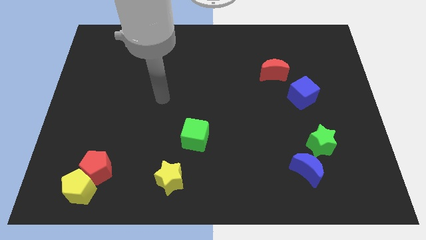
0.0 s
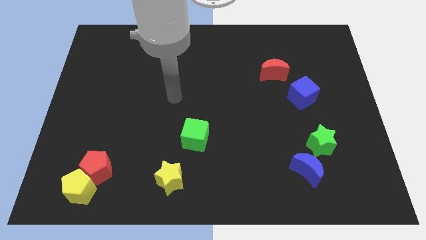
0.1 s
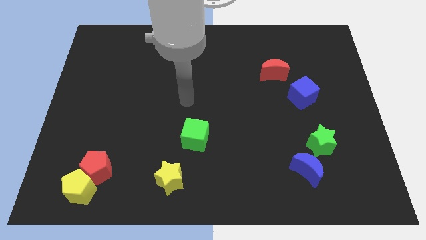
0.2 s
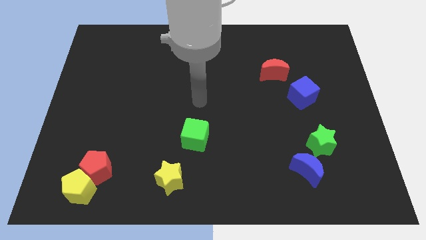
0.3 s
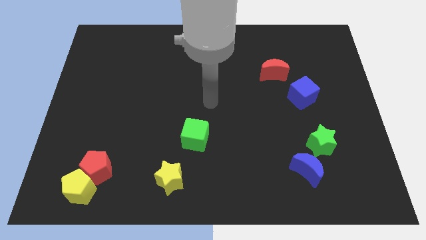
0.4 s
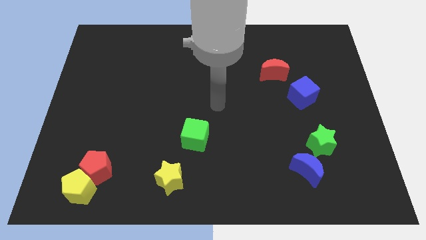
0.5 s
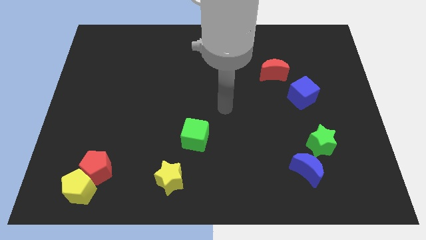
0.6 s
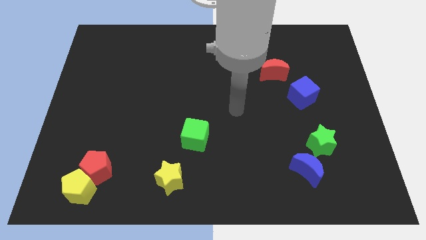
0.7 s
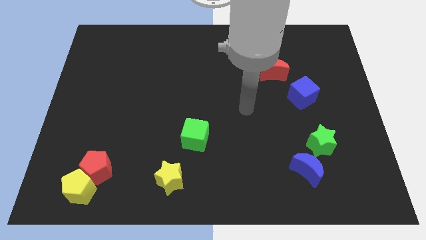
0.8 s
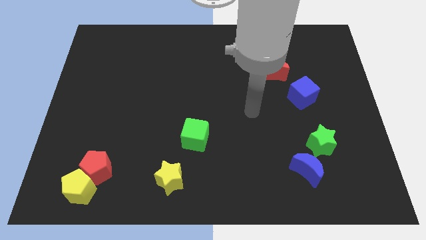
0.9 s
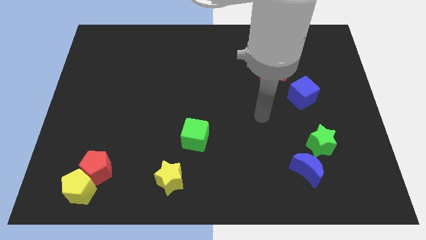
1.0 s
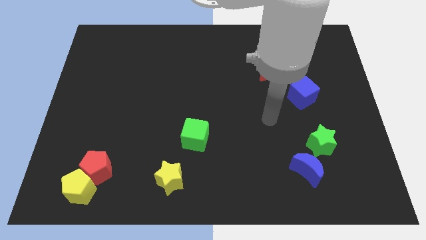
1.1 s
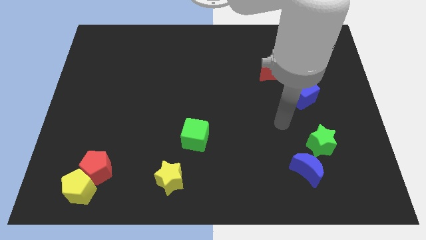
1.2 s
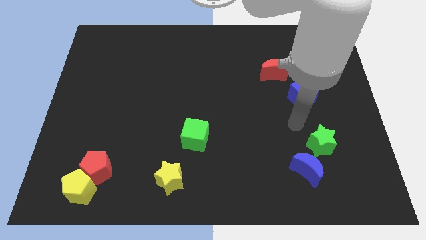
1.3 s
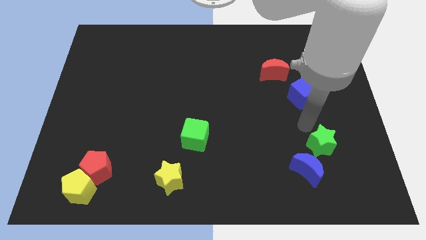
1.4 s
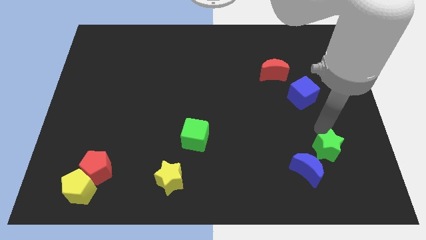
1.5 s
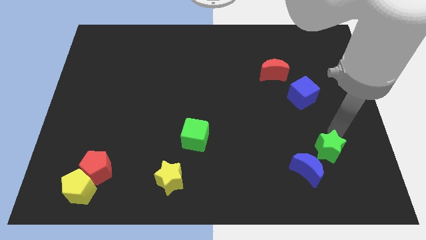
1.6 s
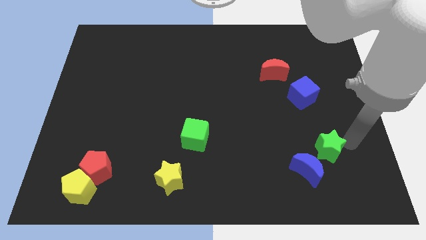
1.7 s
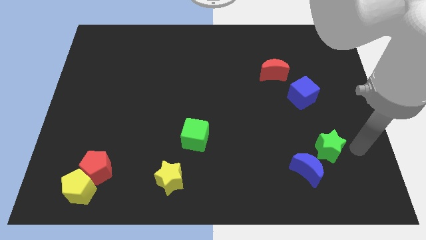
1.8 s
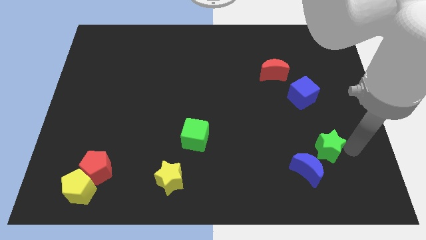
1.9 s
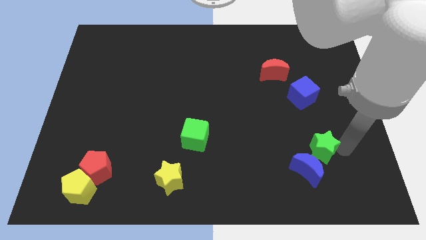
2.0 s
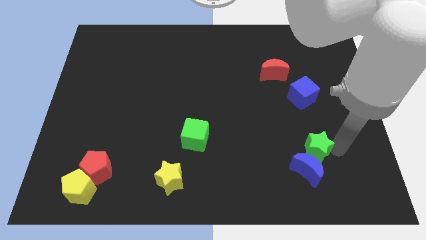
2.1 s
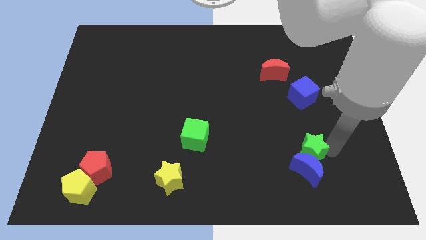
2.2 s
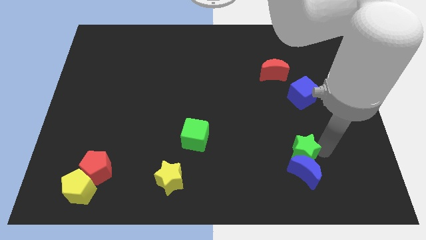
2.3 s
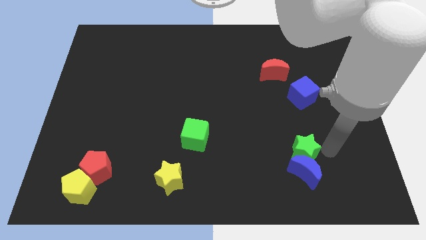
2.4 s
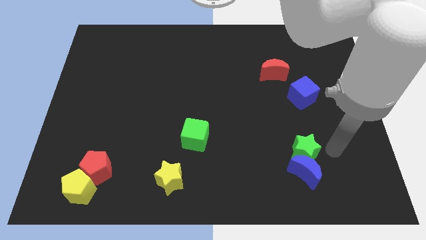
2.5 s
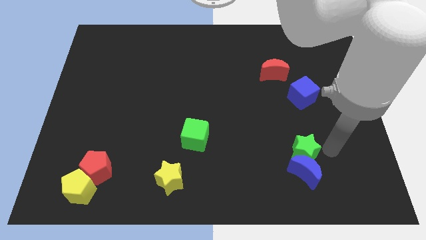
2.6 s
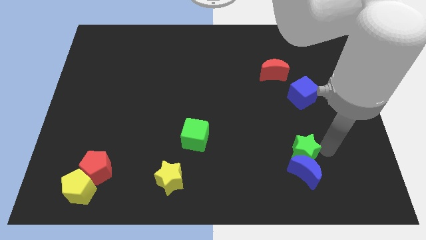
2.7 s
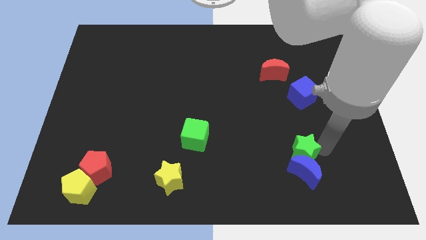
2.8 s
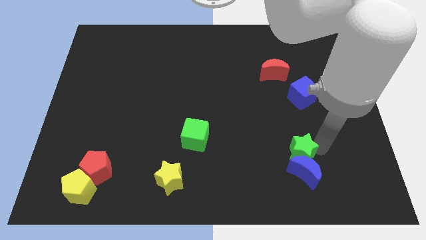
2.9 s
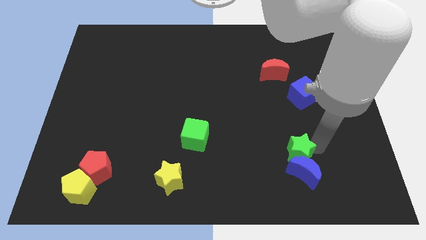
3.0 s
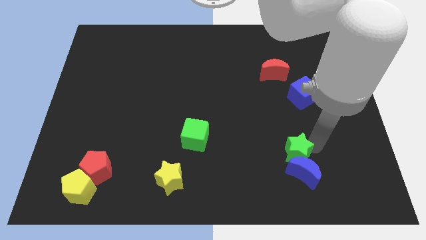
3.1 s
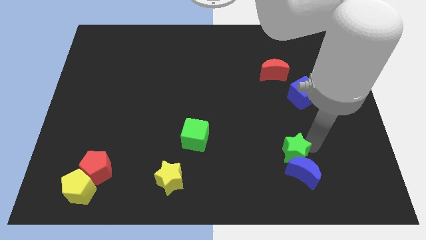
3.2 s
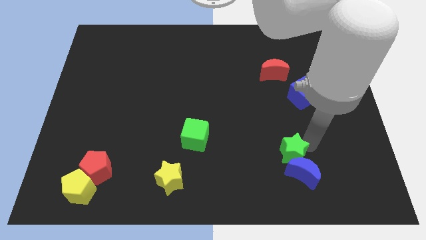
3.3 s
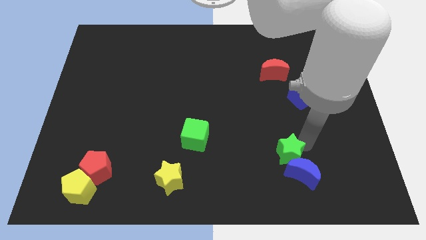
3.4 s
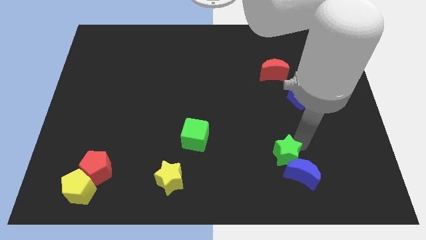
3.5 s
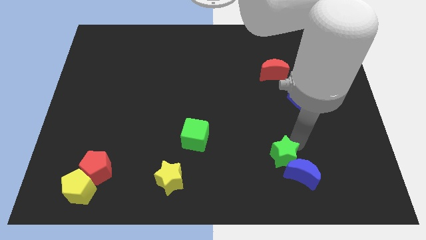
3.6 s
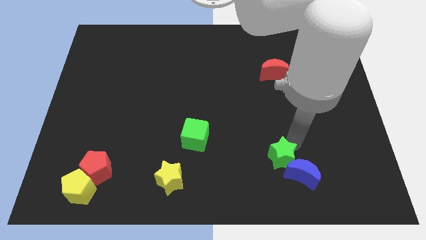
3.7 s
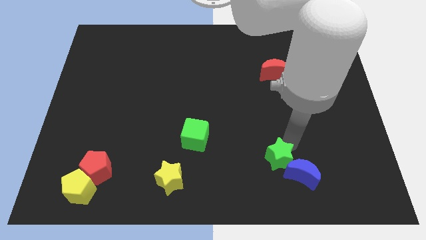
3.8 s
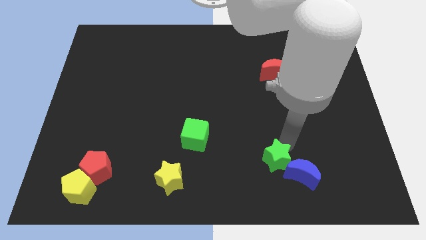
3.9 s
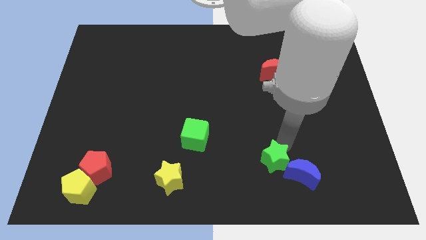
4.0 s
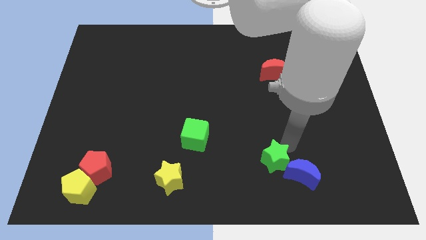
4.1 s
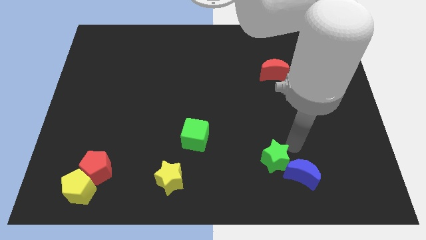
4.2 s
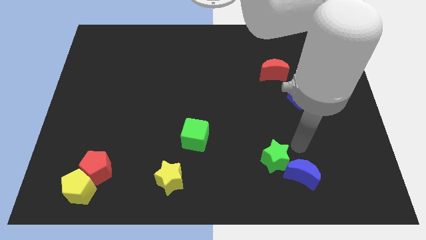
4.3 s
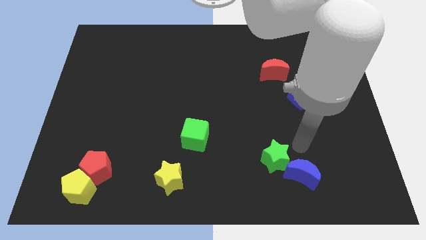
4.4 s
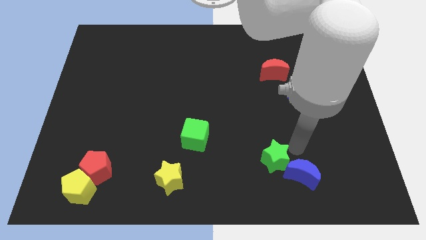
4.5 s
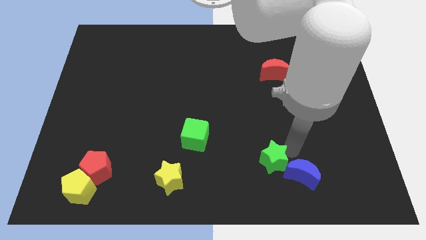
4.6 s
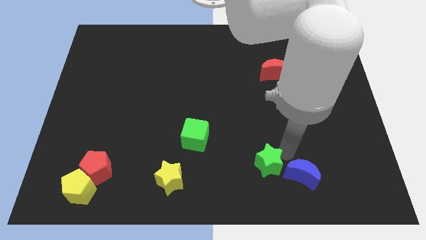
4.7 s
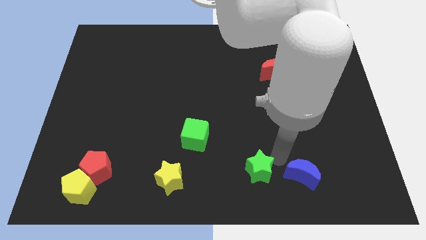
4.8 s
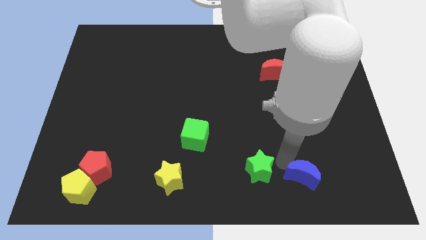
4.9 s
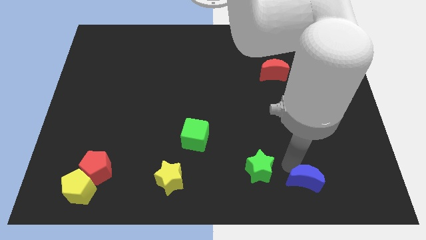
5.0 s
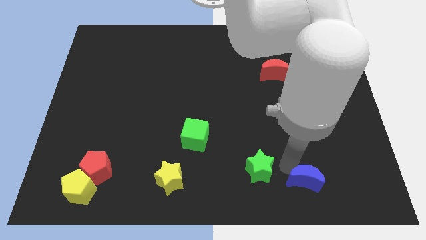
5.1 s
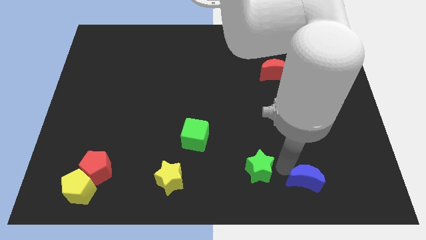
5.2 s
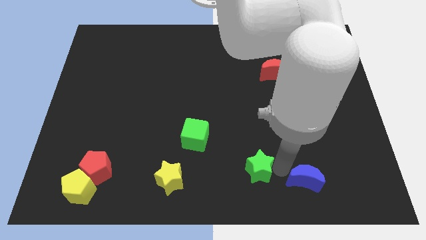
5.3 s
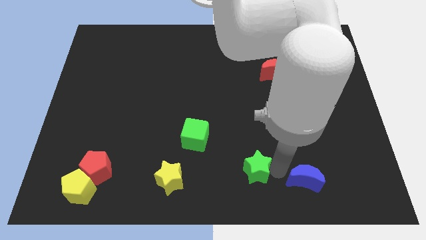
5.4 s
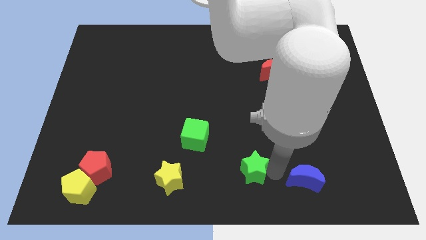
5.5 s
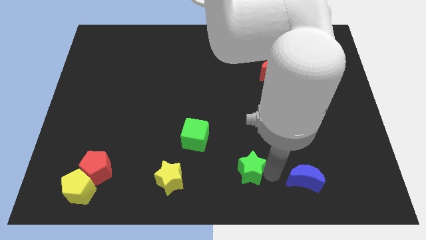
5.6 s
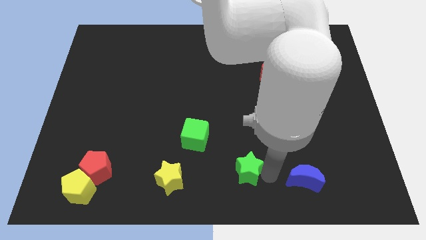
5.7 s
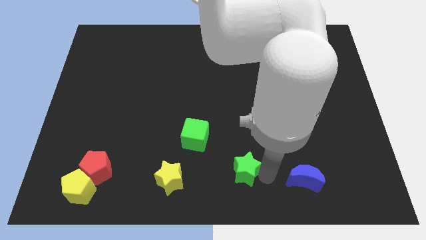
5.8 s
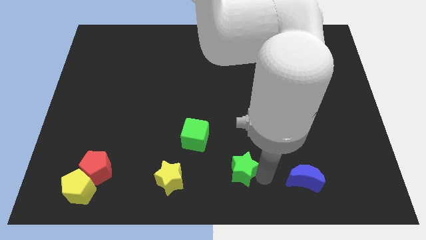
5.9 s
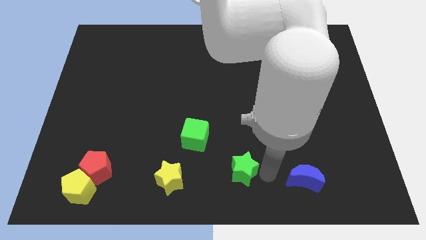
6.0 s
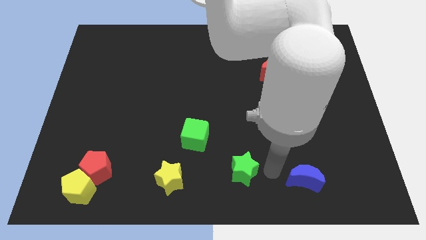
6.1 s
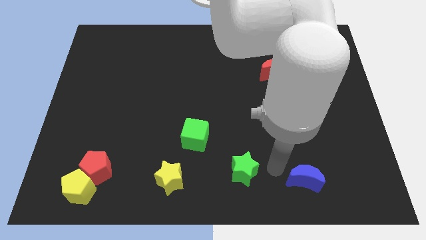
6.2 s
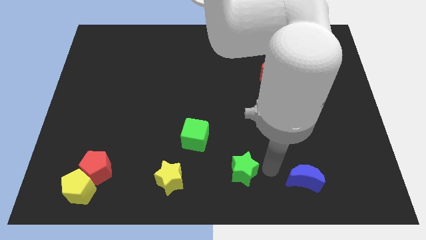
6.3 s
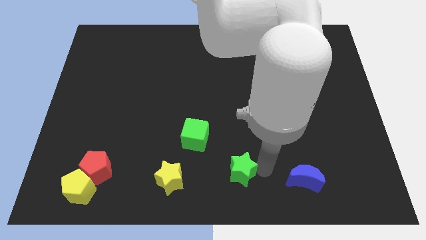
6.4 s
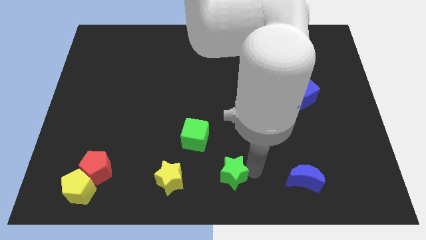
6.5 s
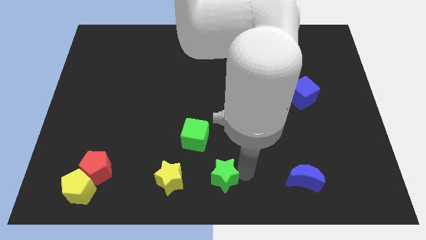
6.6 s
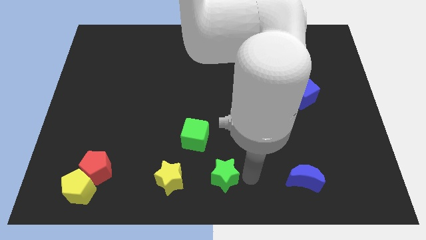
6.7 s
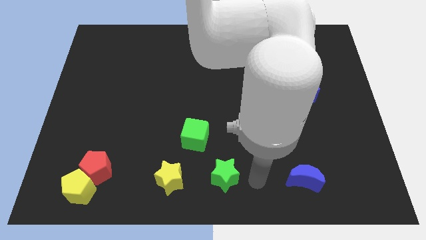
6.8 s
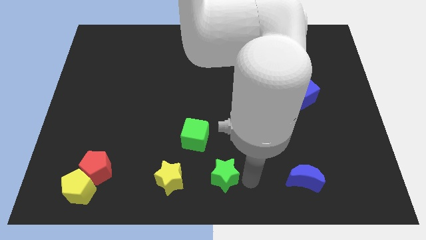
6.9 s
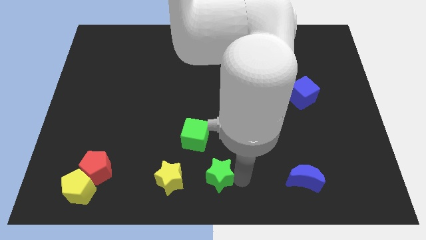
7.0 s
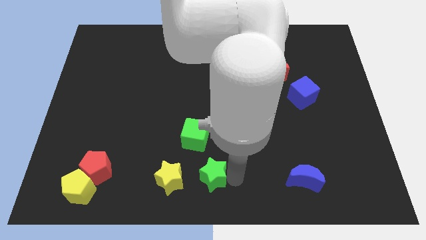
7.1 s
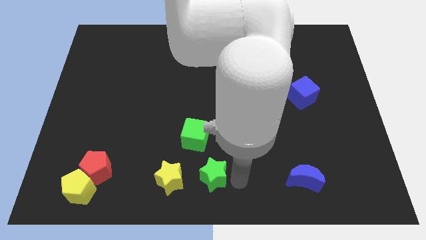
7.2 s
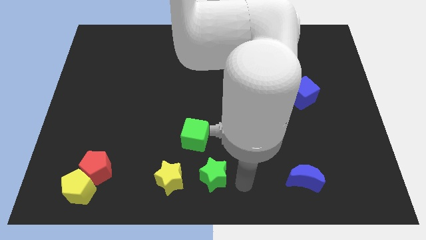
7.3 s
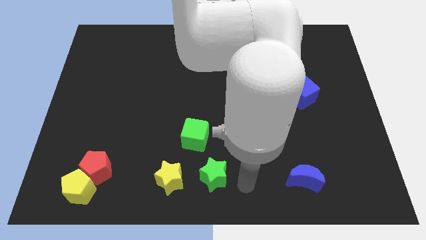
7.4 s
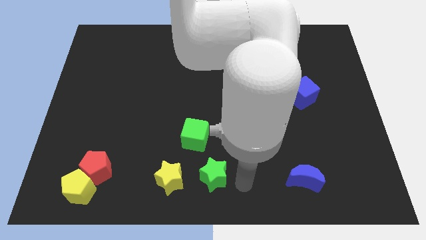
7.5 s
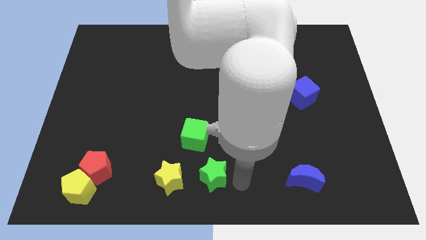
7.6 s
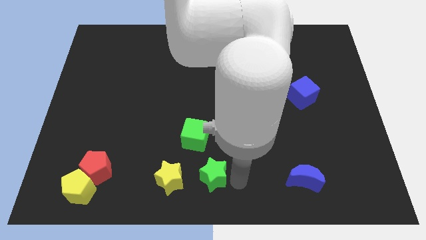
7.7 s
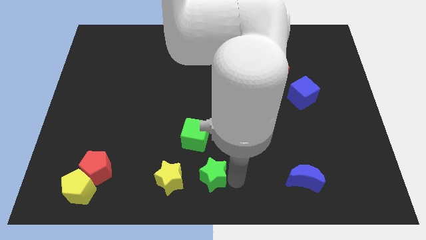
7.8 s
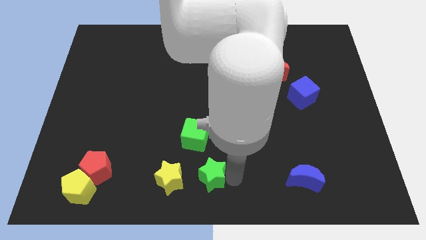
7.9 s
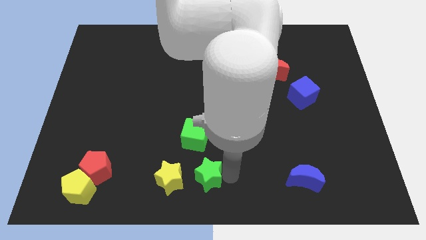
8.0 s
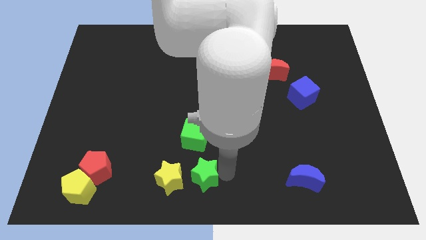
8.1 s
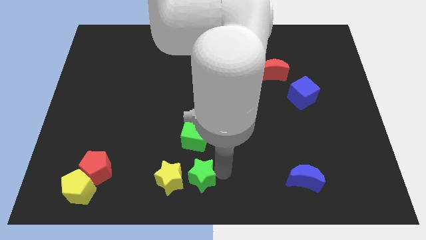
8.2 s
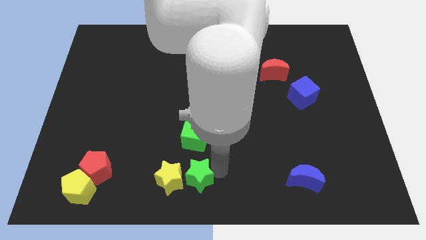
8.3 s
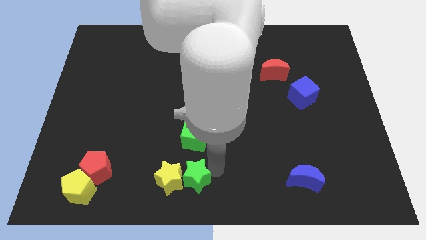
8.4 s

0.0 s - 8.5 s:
move the green star close to the yellow star
